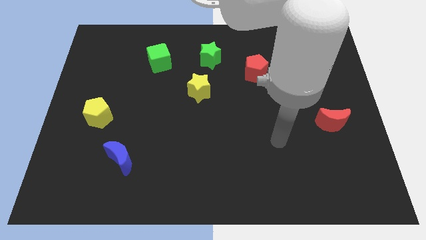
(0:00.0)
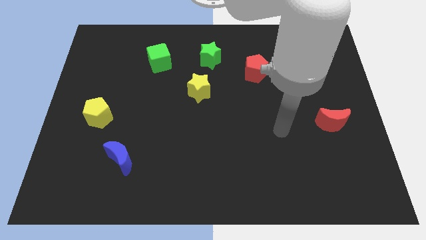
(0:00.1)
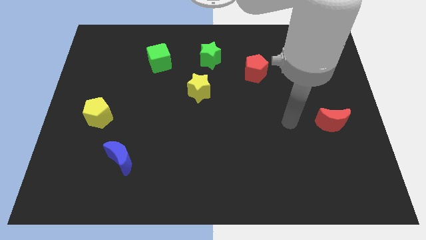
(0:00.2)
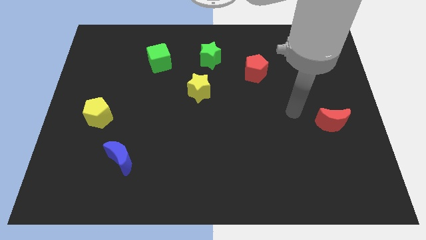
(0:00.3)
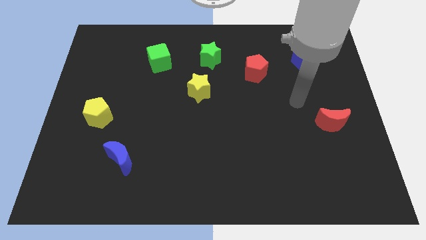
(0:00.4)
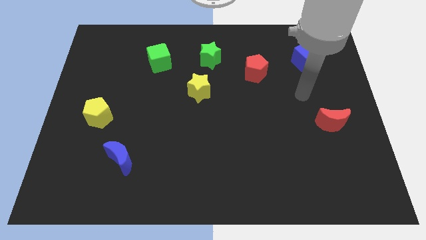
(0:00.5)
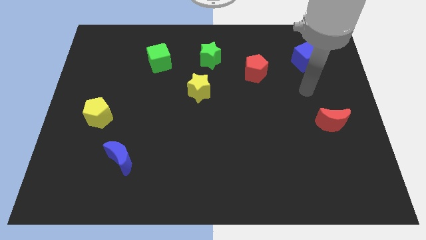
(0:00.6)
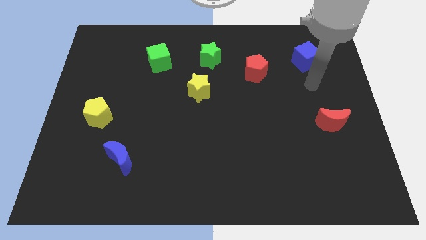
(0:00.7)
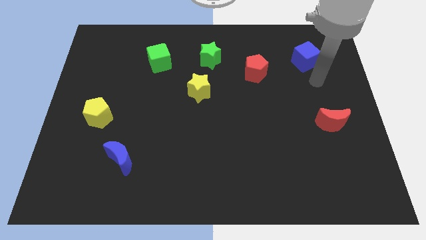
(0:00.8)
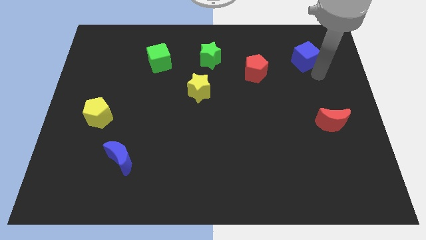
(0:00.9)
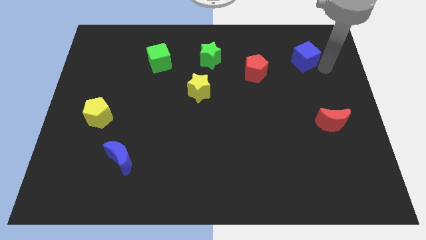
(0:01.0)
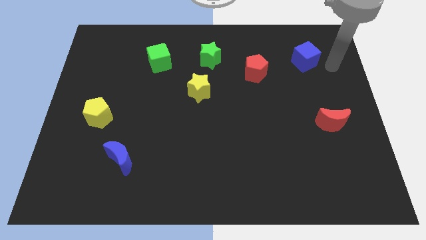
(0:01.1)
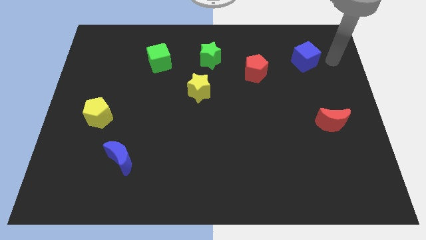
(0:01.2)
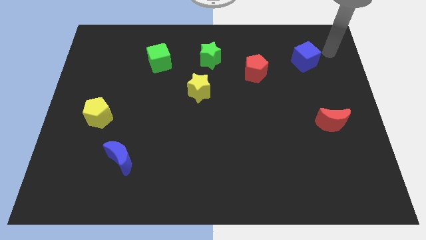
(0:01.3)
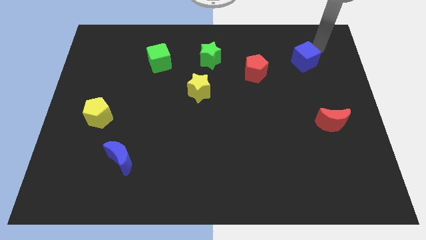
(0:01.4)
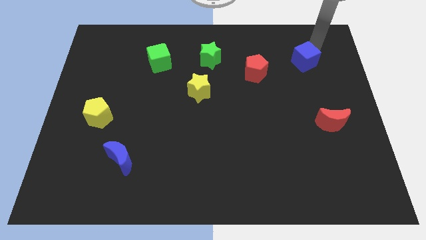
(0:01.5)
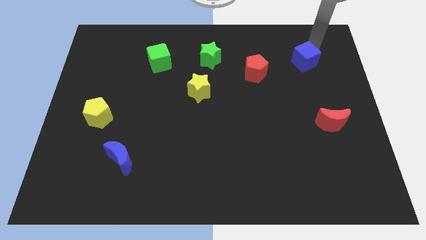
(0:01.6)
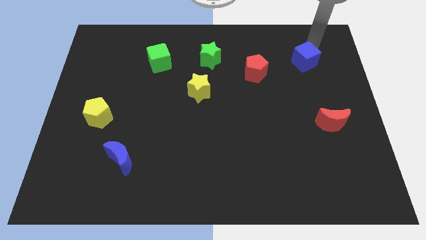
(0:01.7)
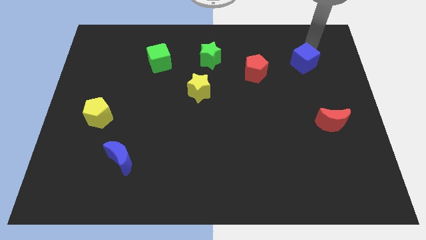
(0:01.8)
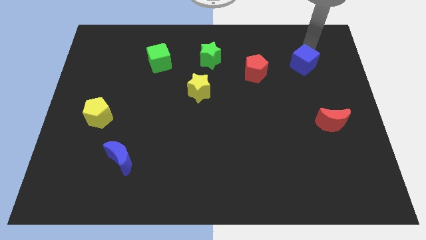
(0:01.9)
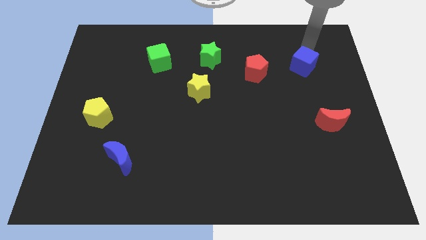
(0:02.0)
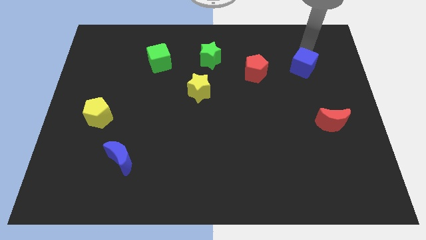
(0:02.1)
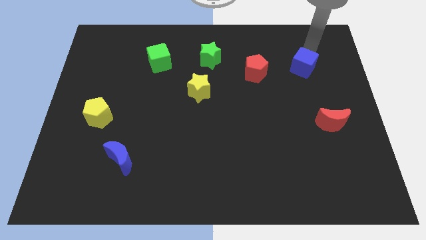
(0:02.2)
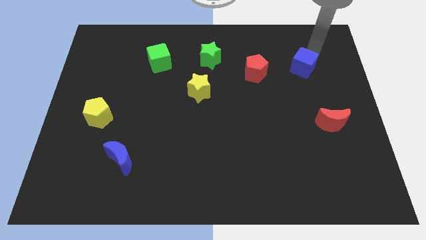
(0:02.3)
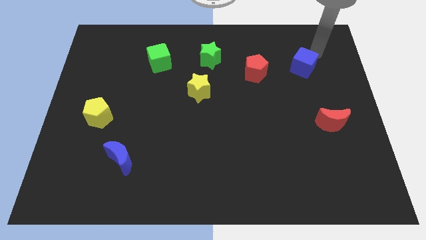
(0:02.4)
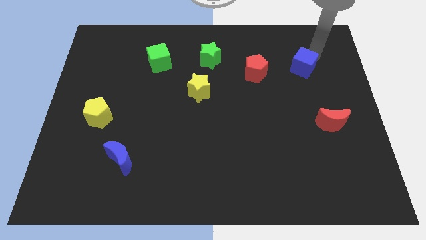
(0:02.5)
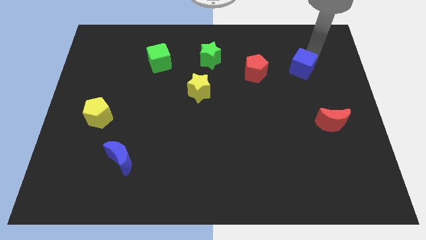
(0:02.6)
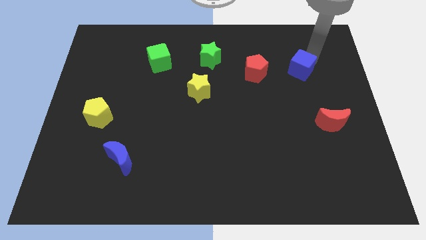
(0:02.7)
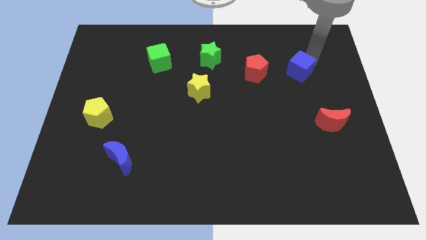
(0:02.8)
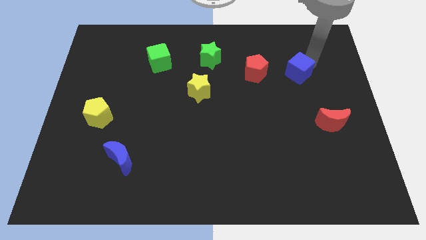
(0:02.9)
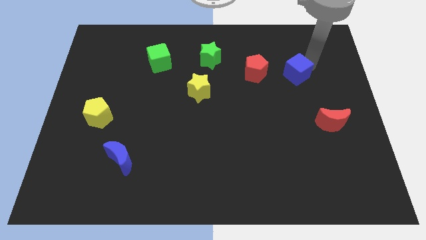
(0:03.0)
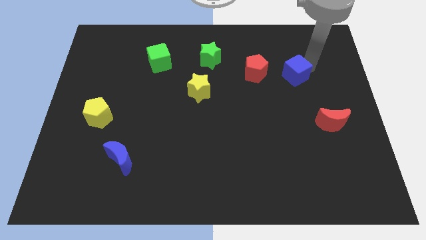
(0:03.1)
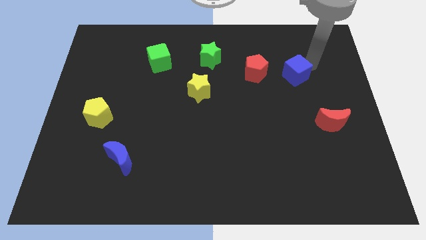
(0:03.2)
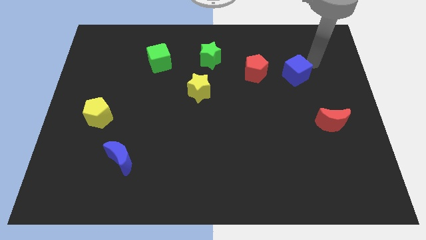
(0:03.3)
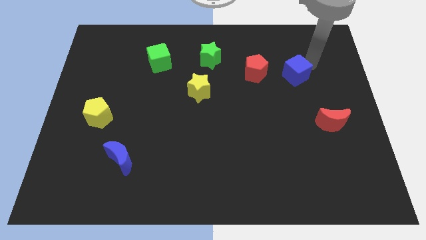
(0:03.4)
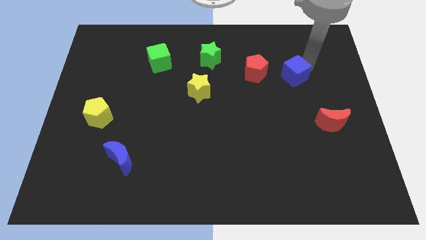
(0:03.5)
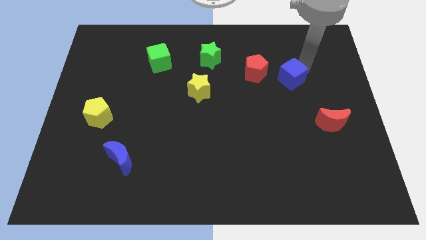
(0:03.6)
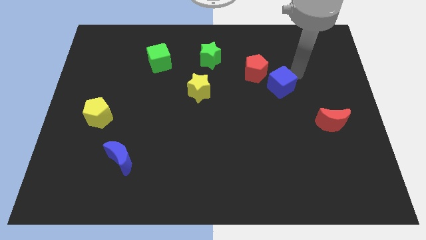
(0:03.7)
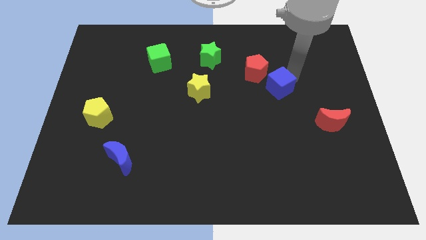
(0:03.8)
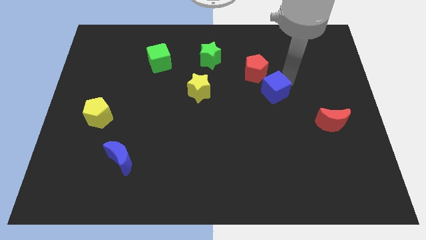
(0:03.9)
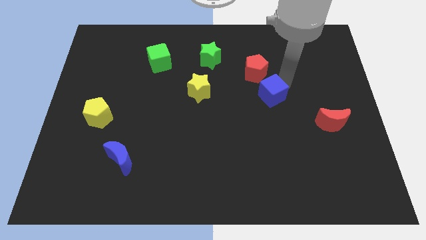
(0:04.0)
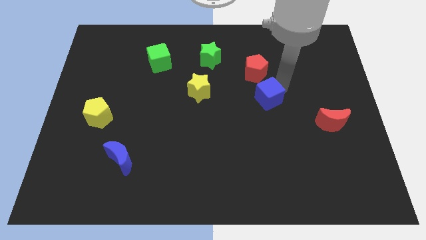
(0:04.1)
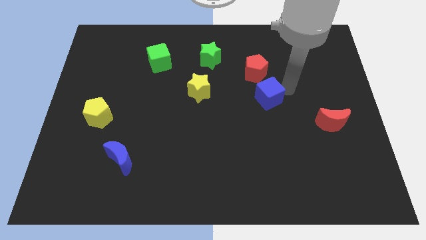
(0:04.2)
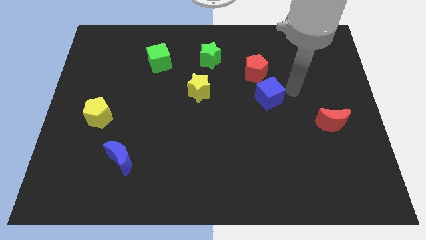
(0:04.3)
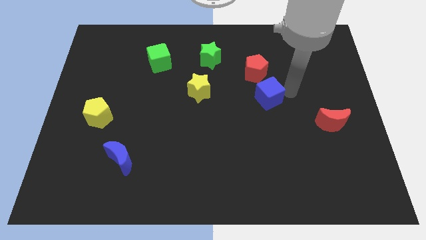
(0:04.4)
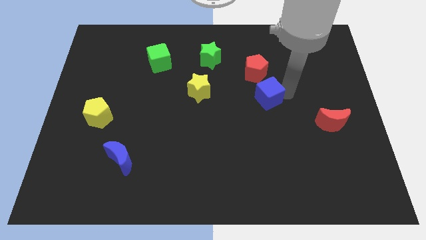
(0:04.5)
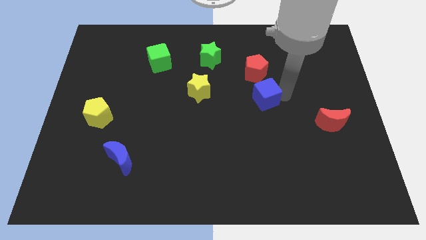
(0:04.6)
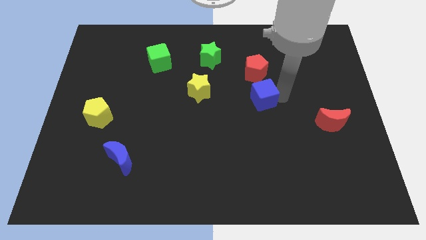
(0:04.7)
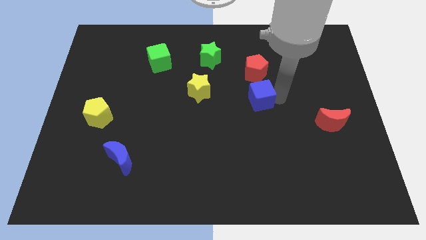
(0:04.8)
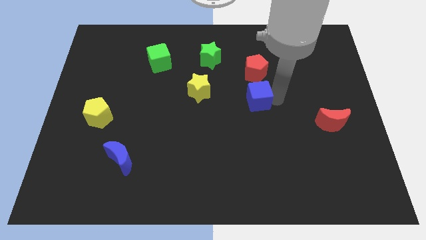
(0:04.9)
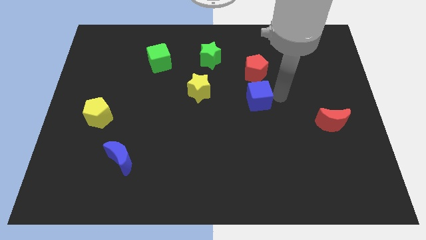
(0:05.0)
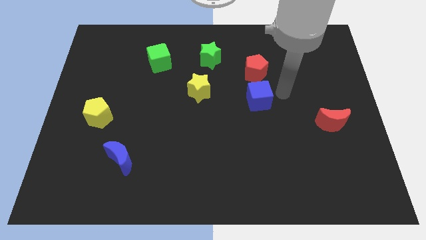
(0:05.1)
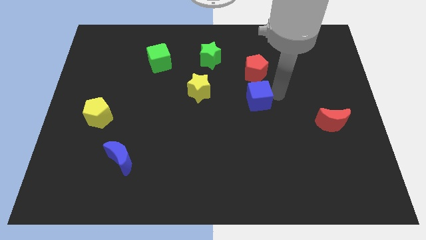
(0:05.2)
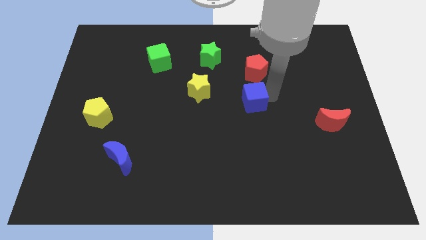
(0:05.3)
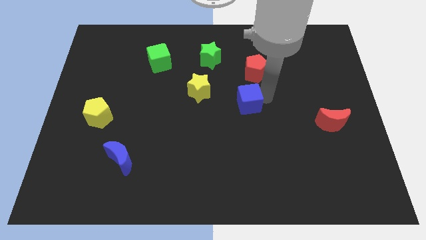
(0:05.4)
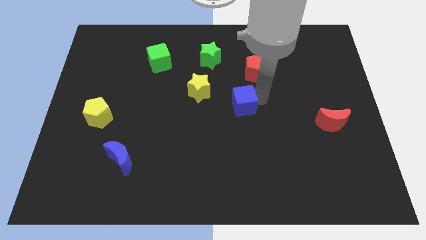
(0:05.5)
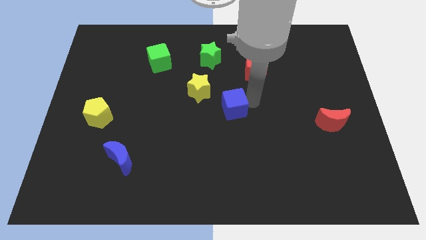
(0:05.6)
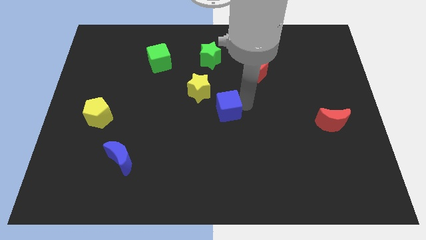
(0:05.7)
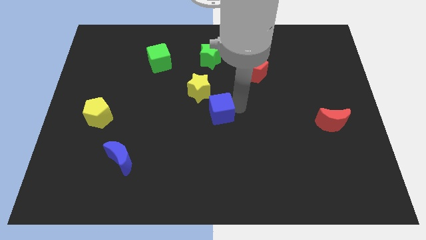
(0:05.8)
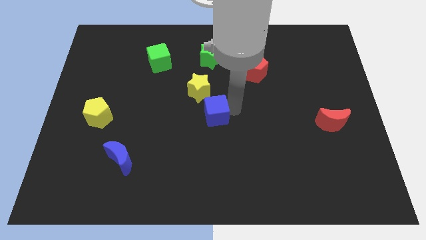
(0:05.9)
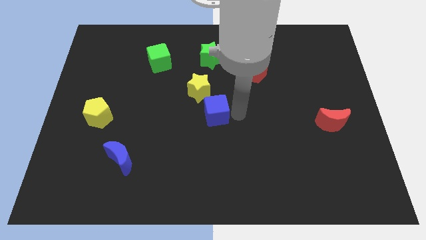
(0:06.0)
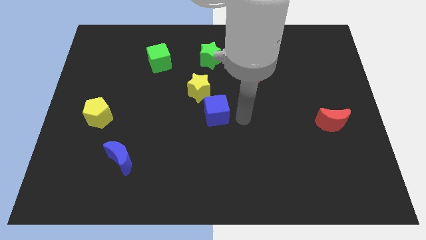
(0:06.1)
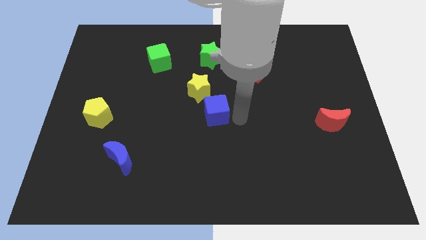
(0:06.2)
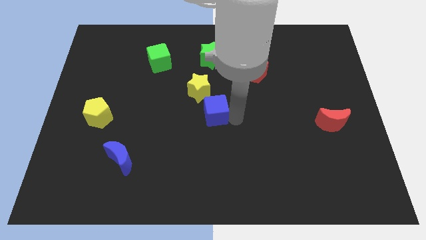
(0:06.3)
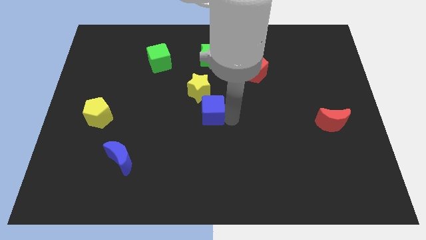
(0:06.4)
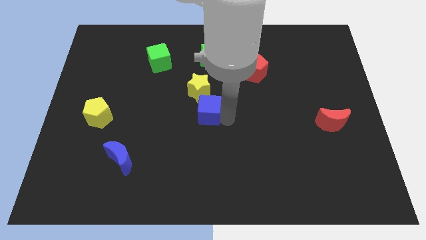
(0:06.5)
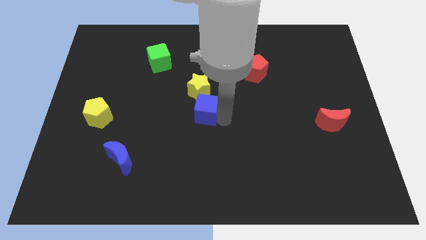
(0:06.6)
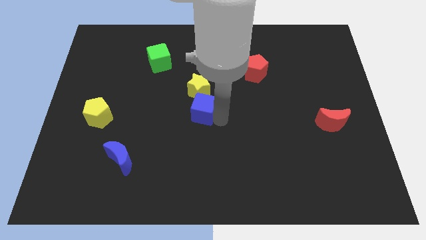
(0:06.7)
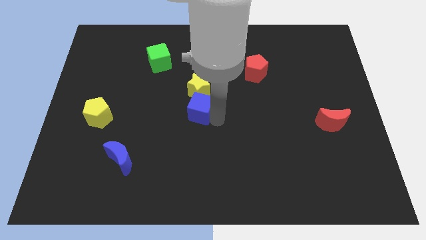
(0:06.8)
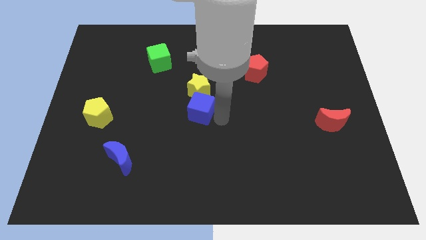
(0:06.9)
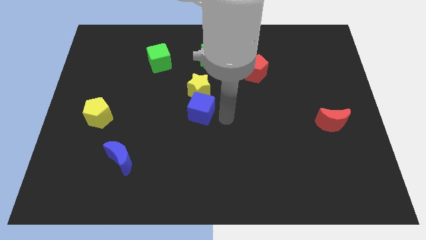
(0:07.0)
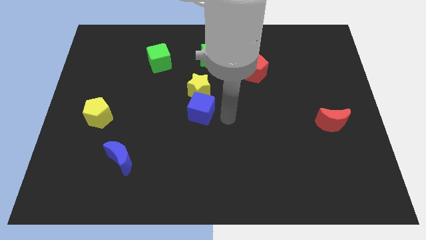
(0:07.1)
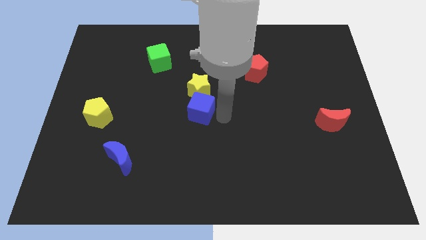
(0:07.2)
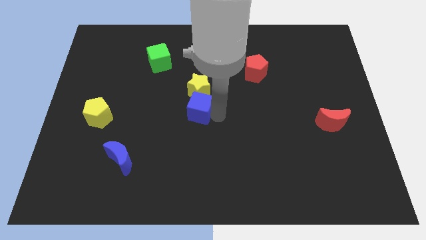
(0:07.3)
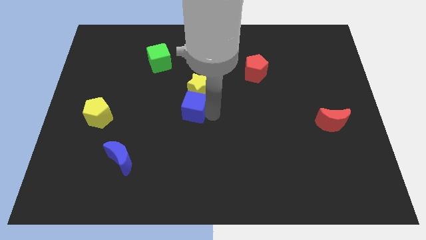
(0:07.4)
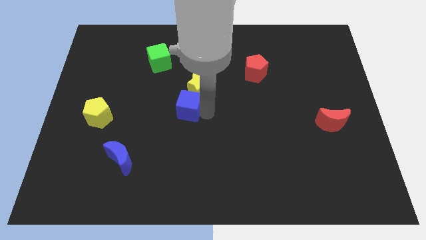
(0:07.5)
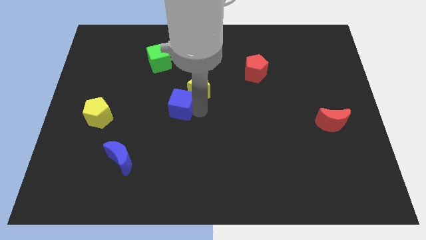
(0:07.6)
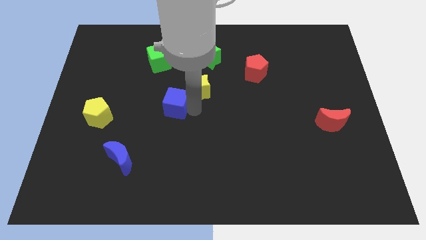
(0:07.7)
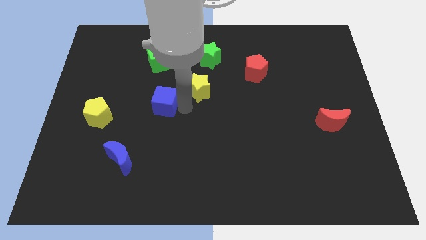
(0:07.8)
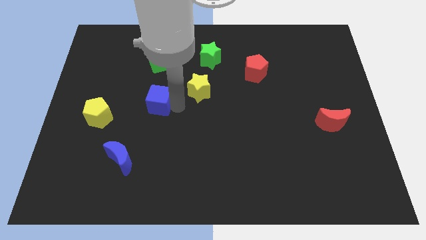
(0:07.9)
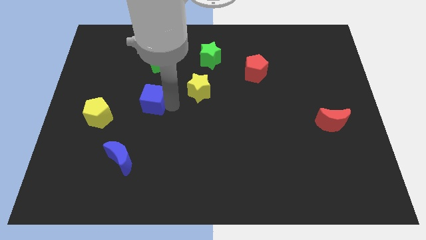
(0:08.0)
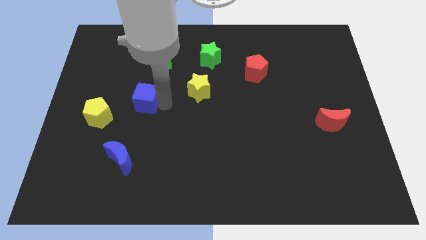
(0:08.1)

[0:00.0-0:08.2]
slide the blue cube diagonally up and to the right of the yellow pentagon
